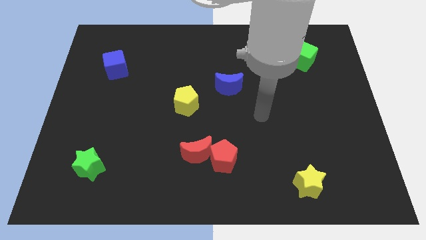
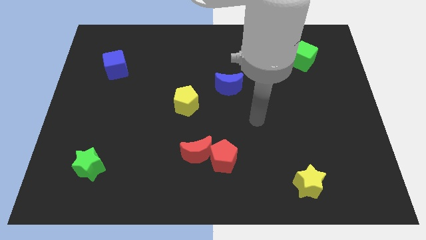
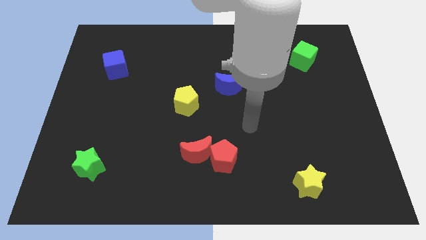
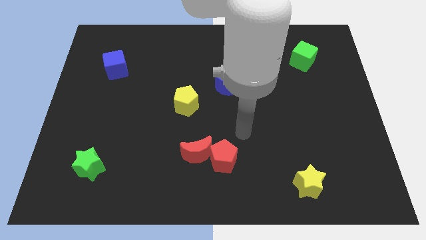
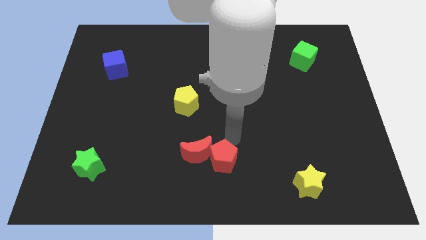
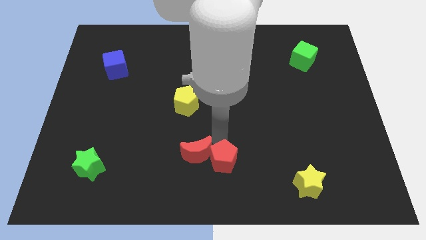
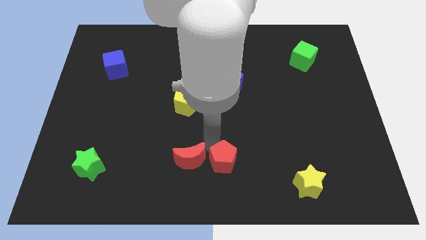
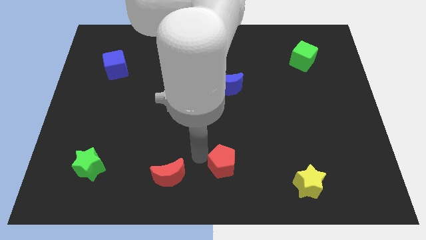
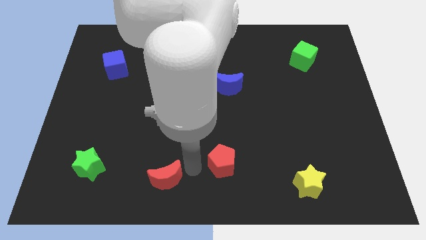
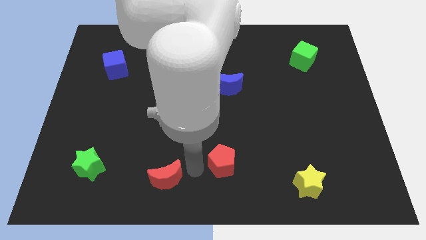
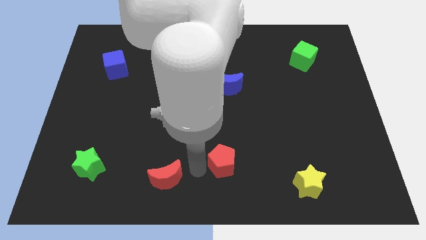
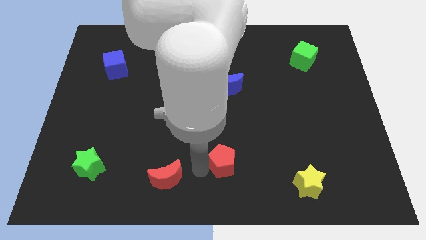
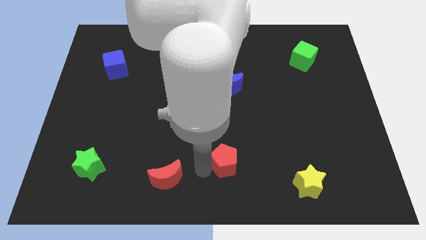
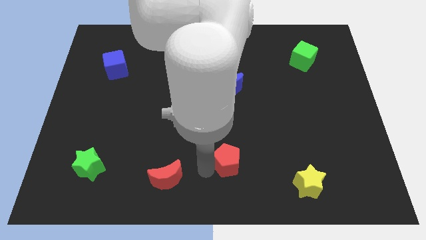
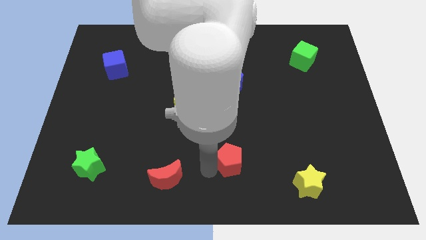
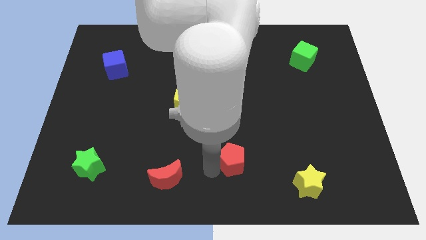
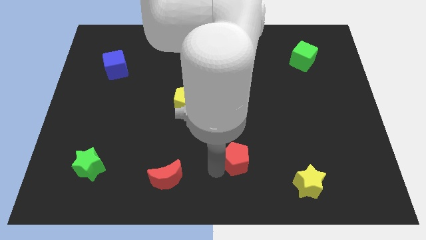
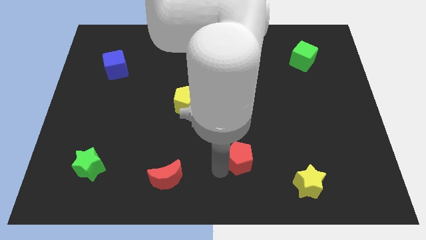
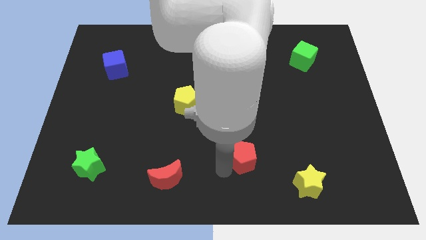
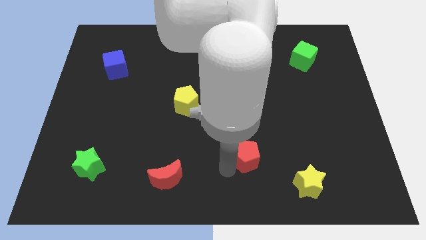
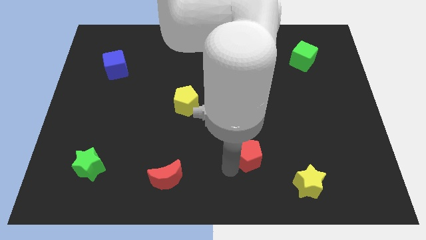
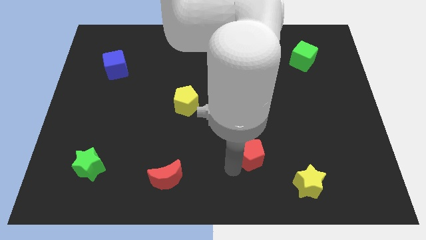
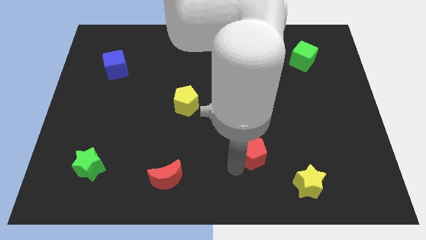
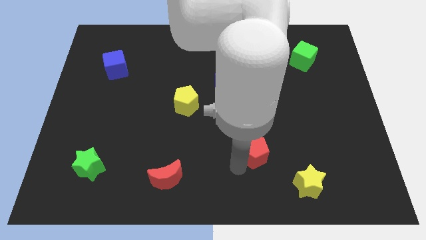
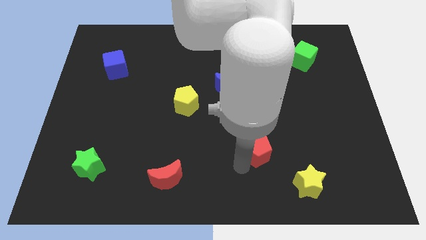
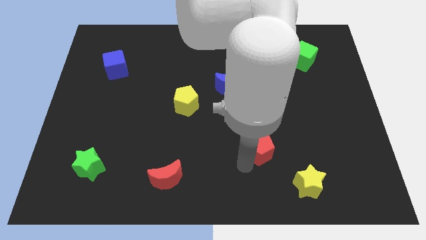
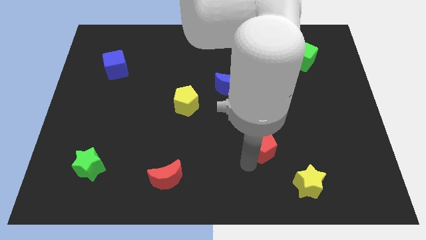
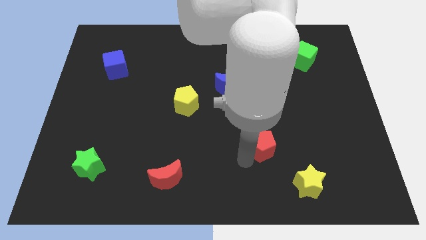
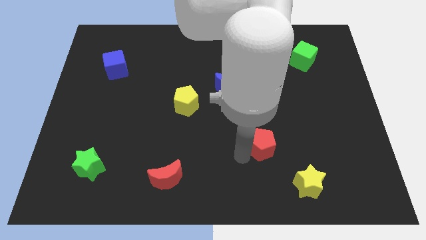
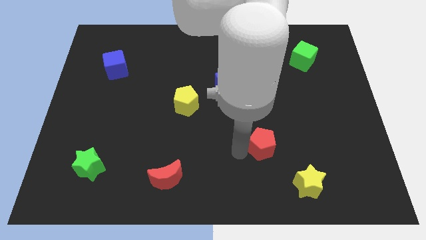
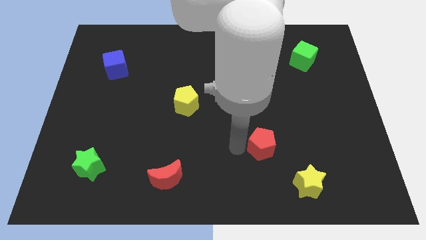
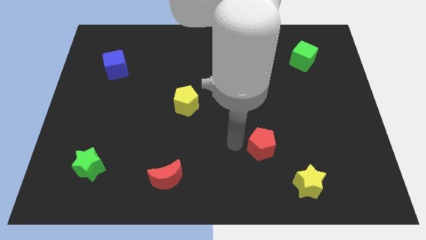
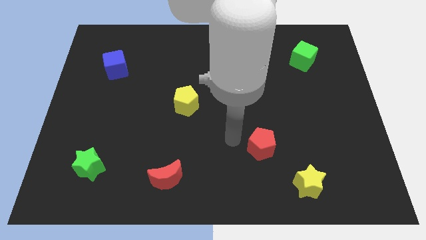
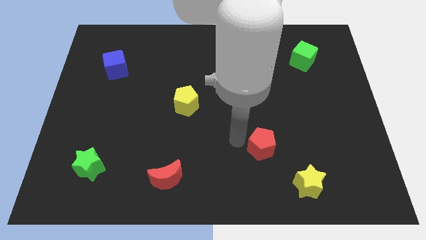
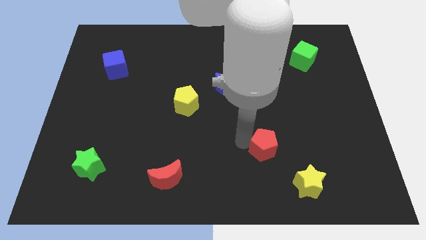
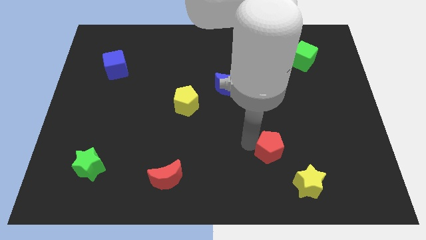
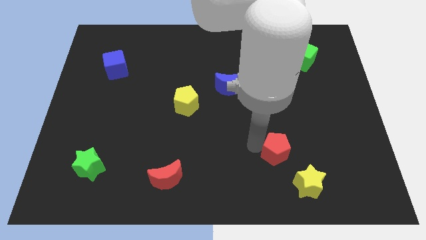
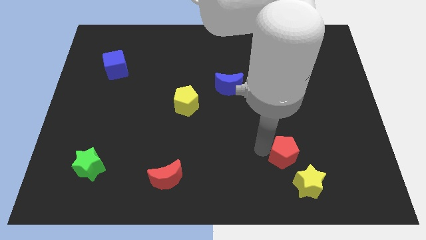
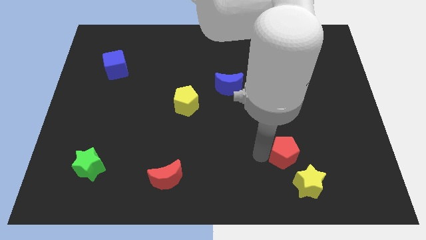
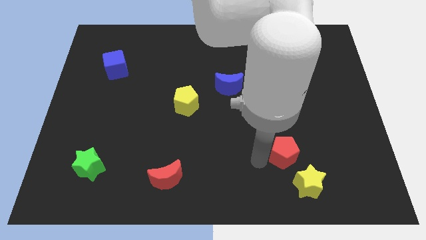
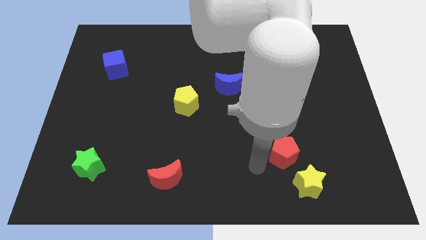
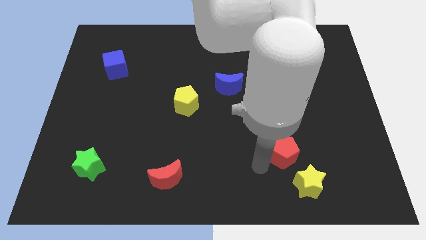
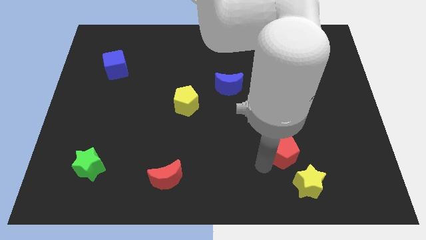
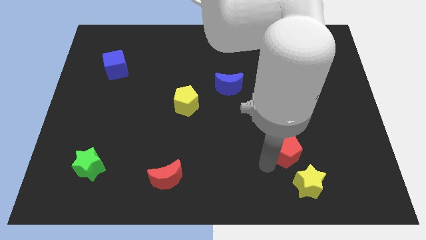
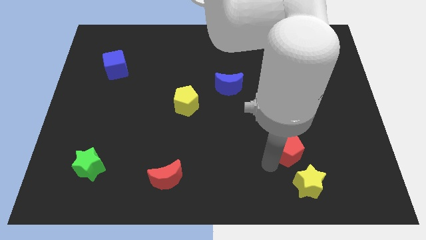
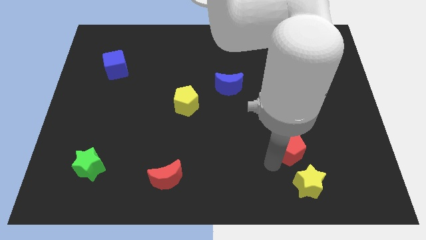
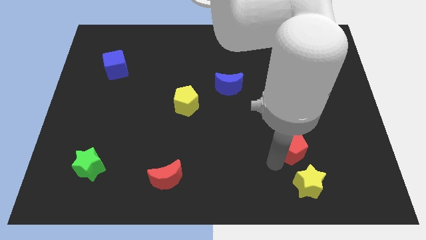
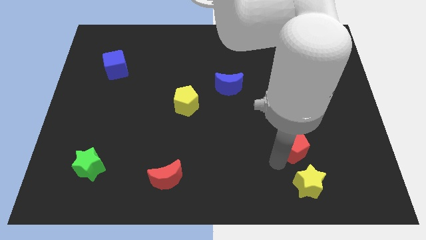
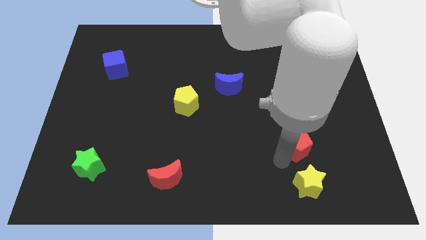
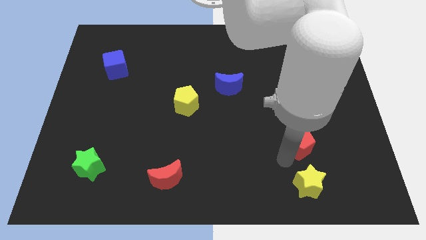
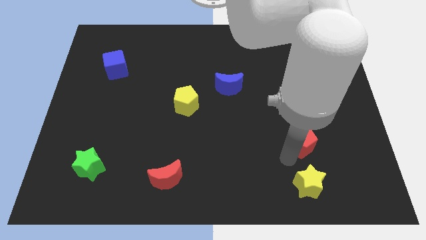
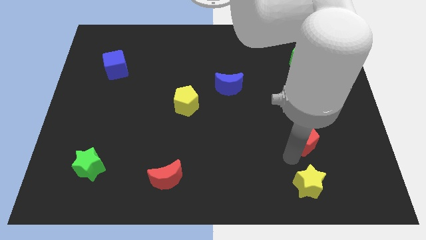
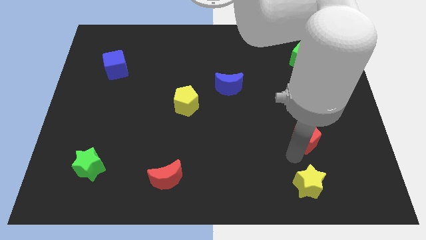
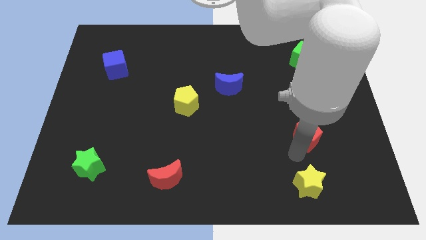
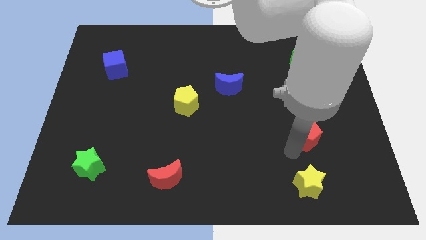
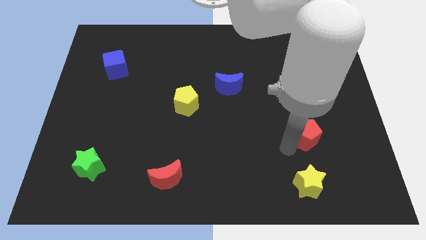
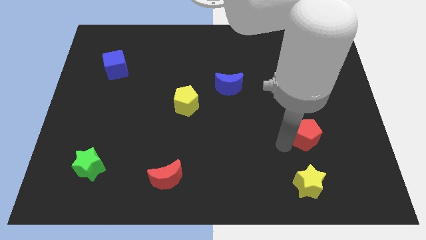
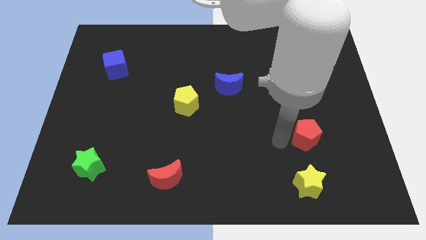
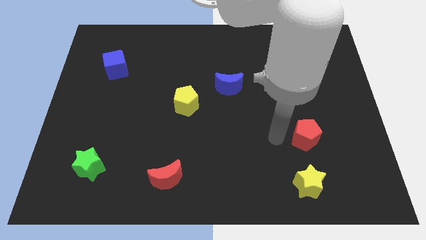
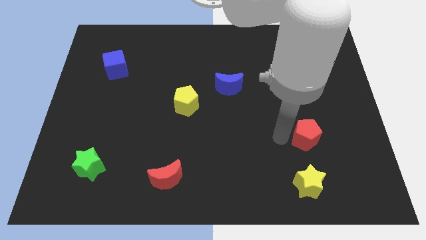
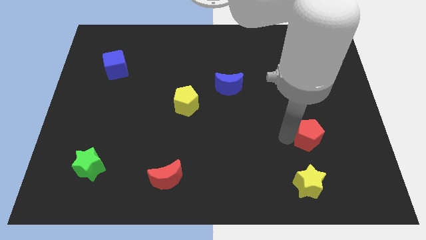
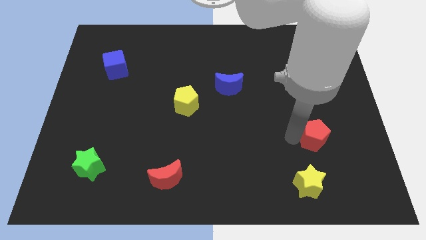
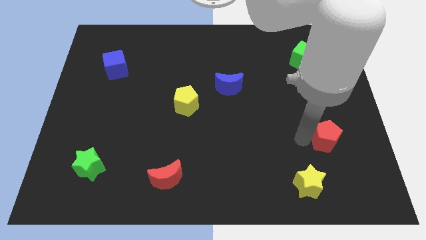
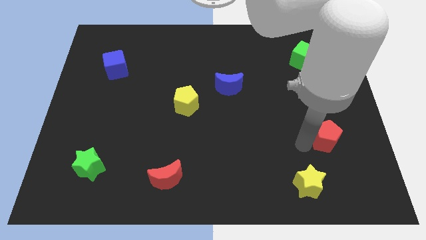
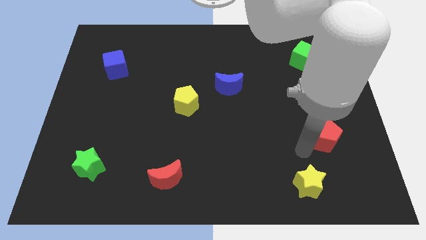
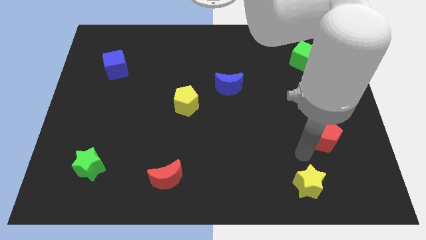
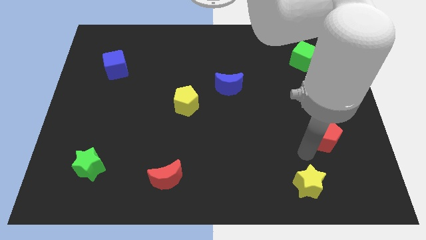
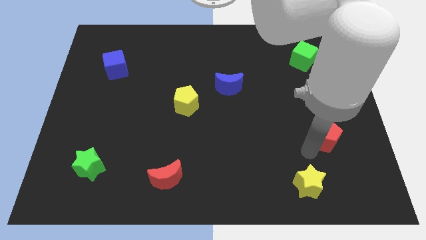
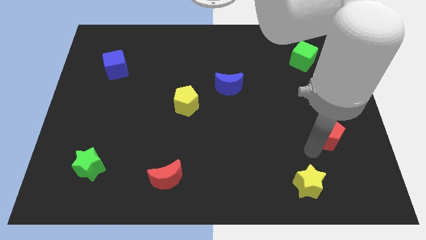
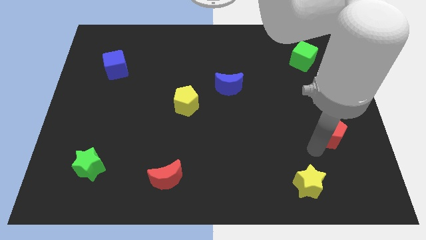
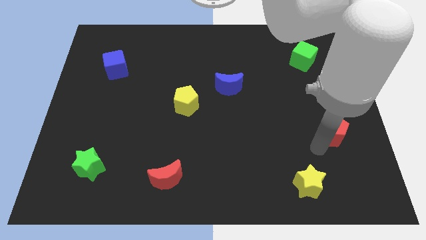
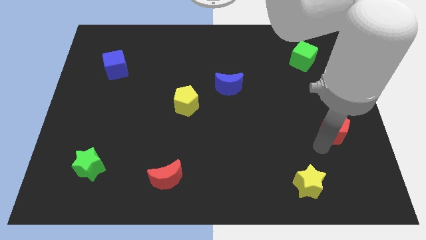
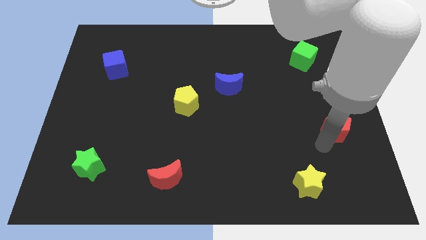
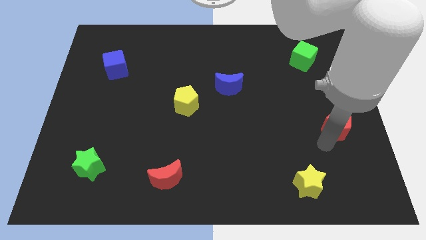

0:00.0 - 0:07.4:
slide the red pentagon to the right side of the board
